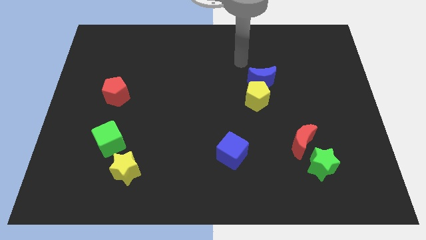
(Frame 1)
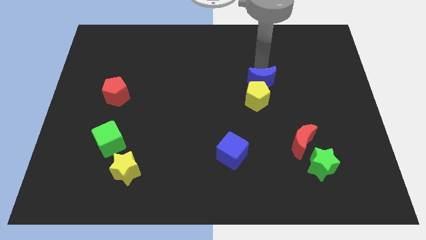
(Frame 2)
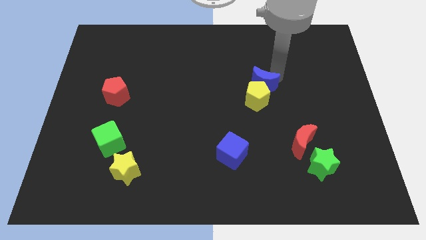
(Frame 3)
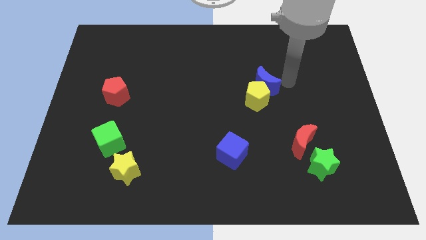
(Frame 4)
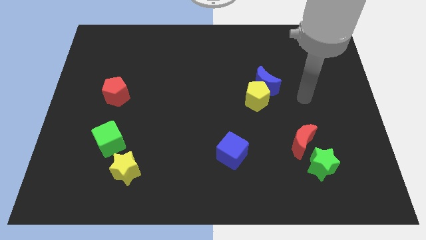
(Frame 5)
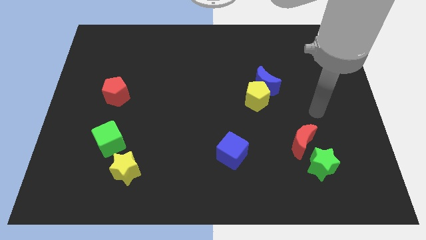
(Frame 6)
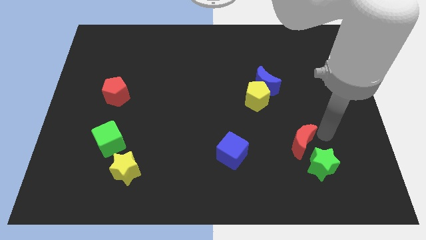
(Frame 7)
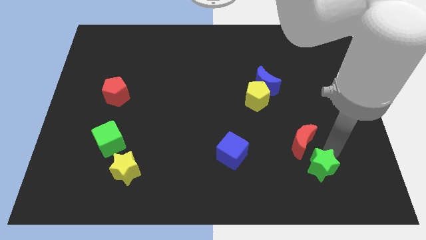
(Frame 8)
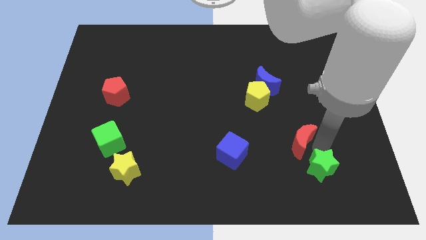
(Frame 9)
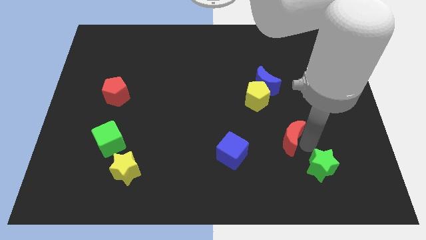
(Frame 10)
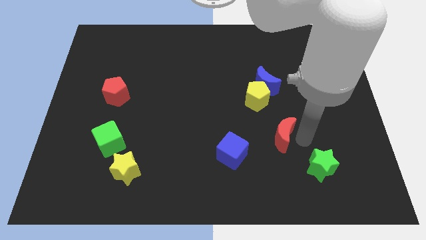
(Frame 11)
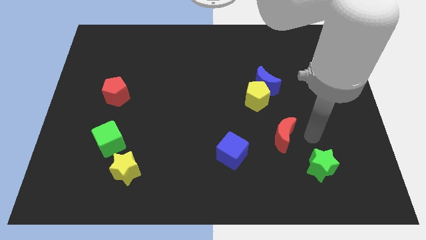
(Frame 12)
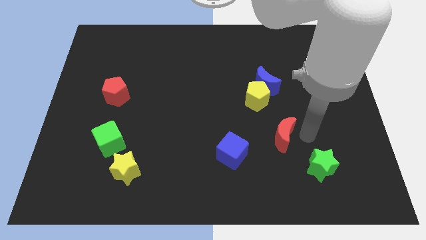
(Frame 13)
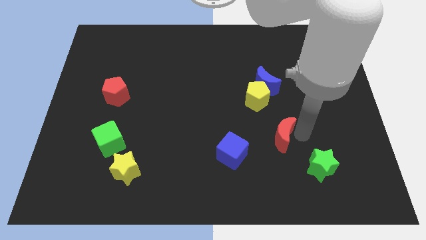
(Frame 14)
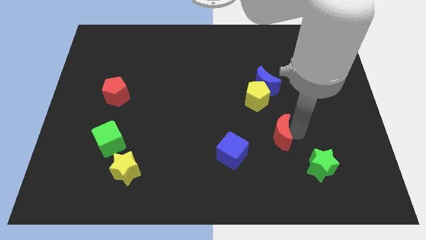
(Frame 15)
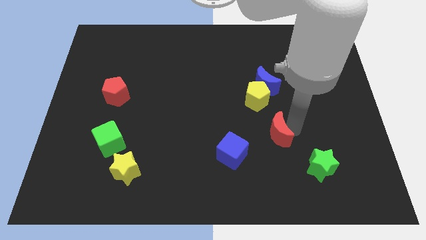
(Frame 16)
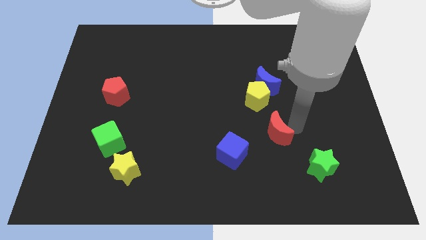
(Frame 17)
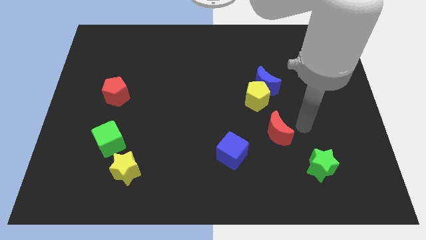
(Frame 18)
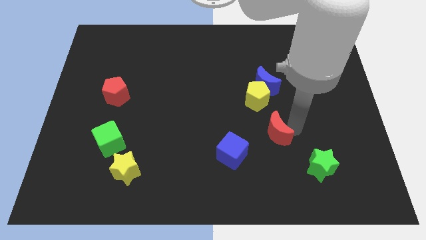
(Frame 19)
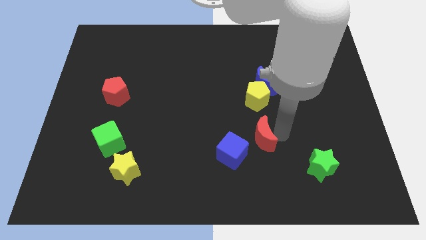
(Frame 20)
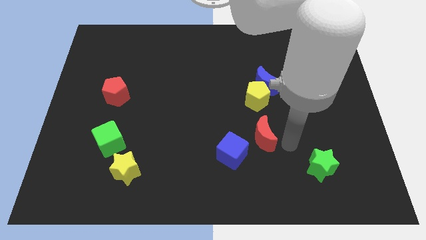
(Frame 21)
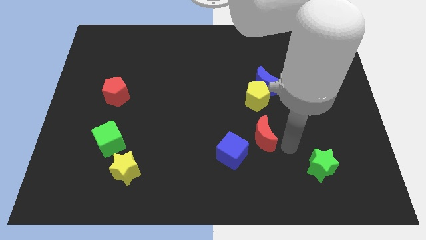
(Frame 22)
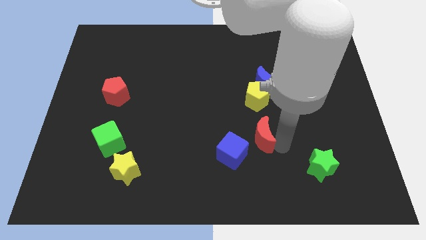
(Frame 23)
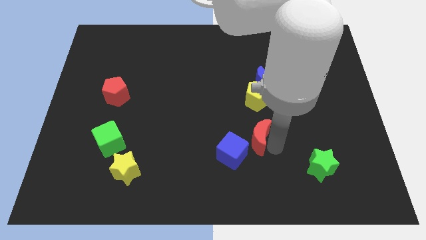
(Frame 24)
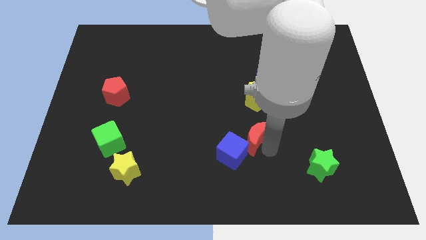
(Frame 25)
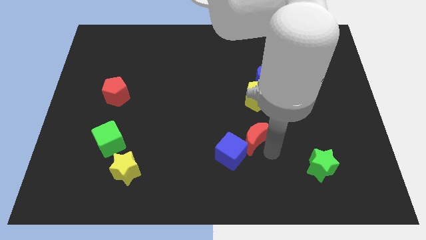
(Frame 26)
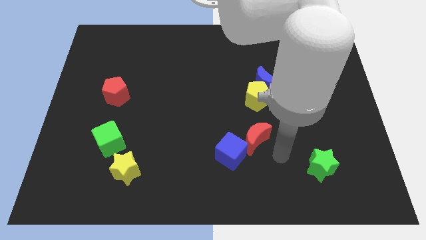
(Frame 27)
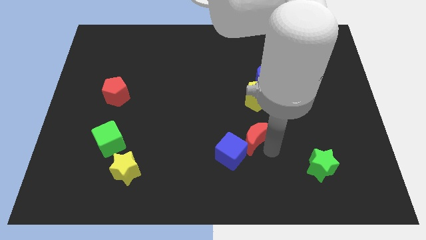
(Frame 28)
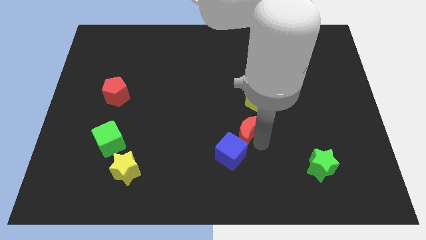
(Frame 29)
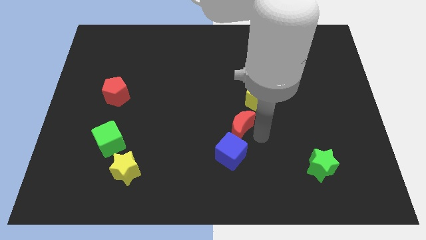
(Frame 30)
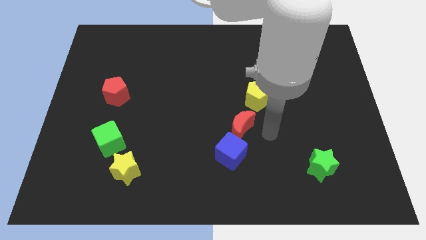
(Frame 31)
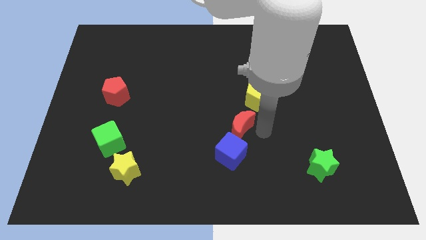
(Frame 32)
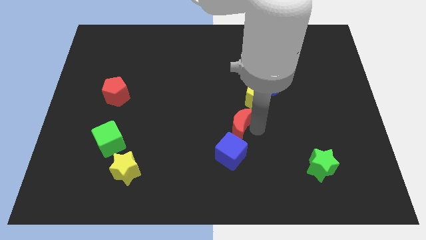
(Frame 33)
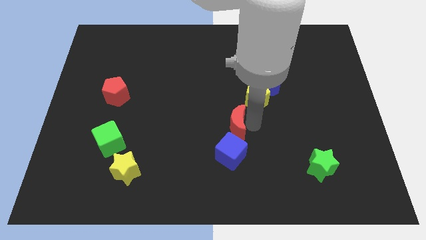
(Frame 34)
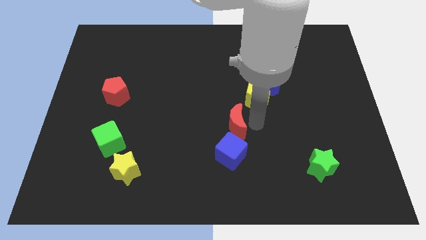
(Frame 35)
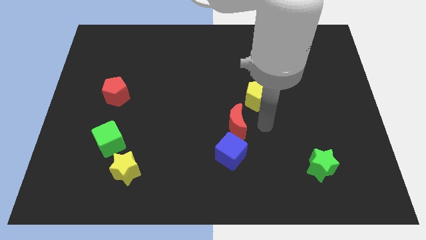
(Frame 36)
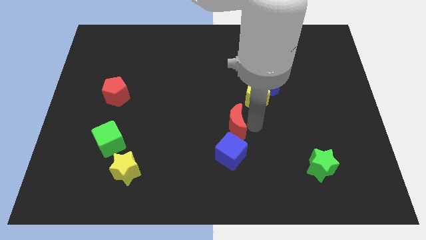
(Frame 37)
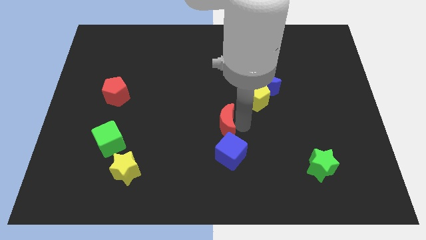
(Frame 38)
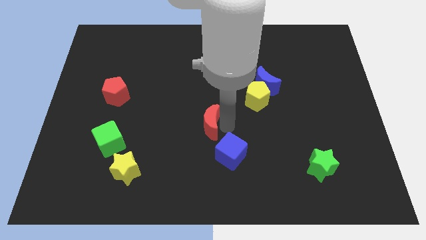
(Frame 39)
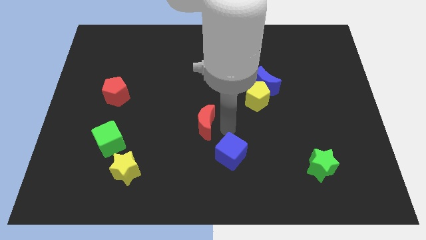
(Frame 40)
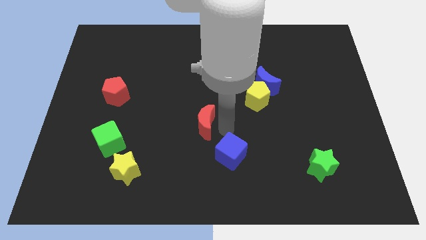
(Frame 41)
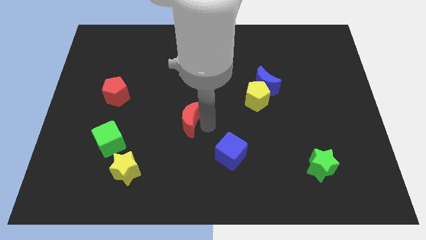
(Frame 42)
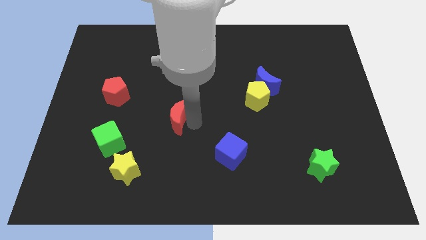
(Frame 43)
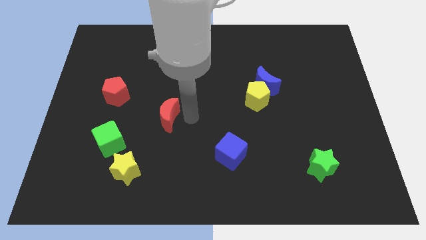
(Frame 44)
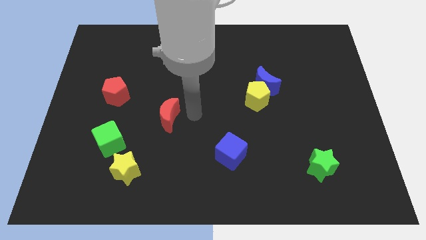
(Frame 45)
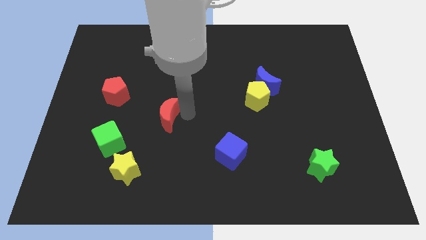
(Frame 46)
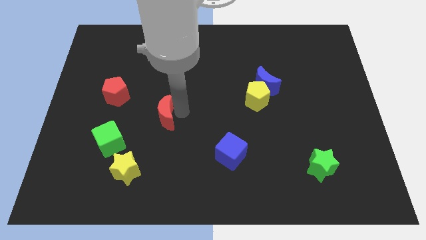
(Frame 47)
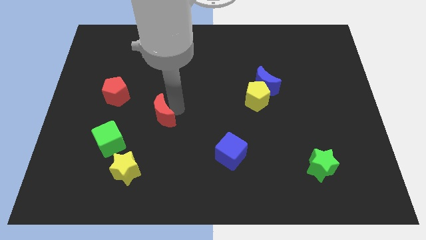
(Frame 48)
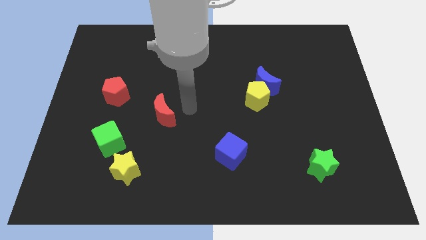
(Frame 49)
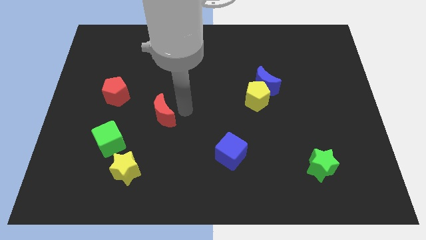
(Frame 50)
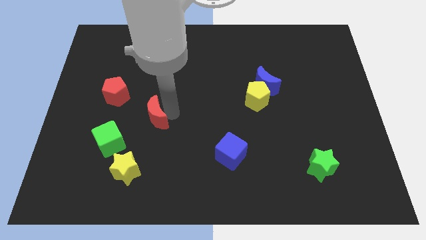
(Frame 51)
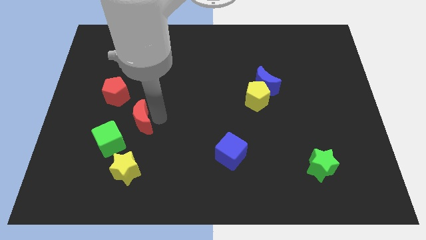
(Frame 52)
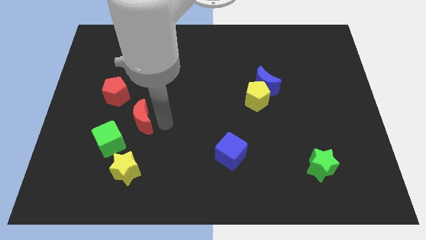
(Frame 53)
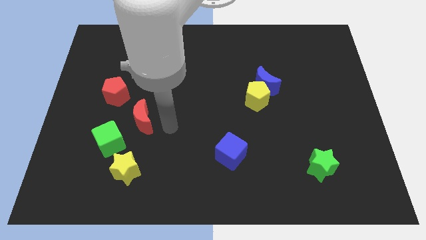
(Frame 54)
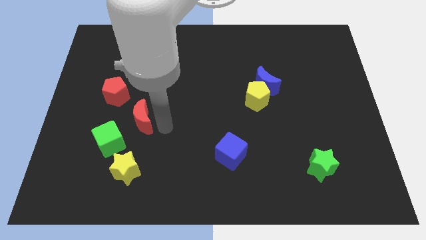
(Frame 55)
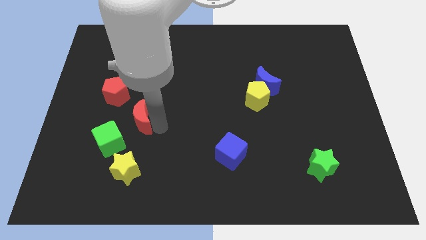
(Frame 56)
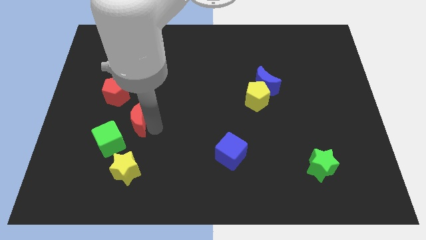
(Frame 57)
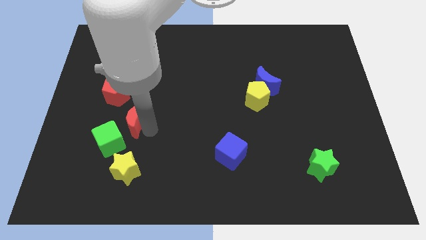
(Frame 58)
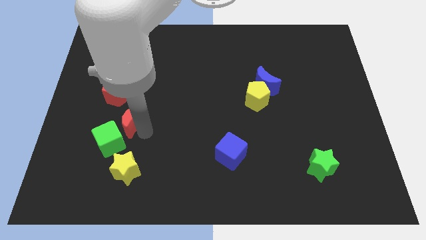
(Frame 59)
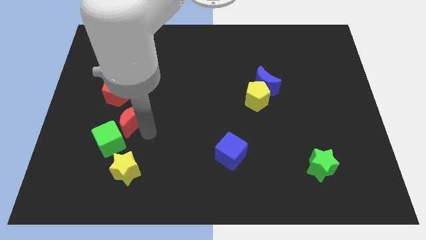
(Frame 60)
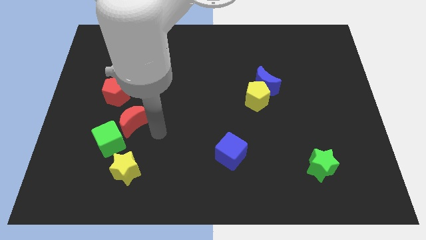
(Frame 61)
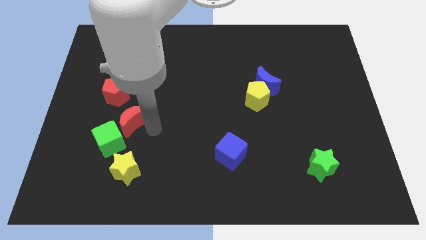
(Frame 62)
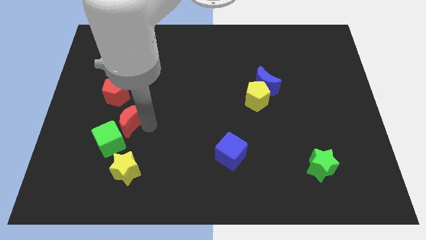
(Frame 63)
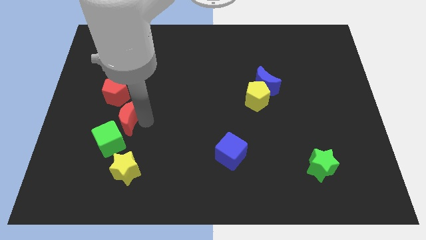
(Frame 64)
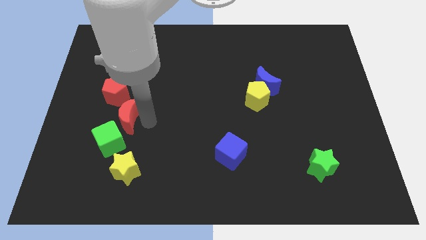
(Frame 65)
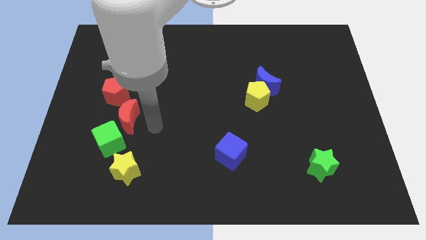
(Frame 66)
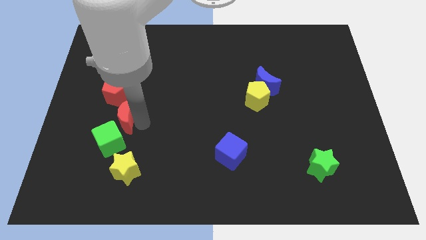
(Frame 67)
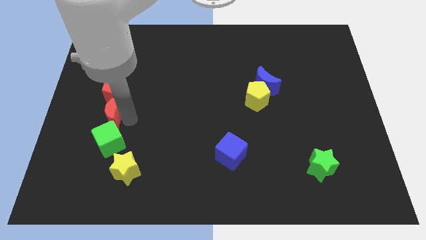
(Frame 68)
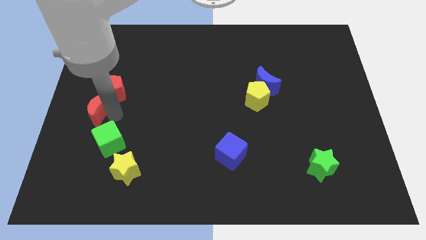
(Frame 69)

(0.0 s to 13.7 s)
slide the red moon to the left side
